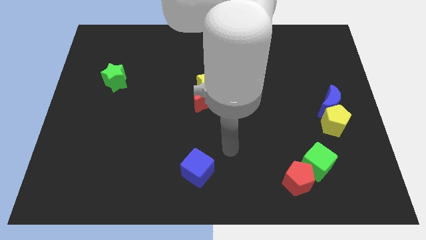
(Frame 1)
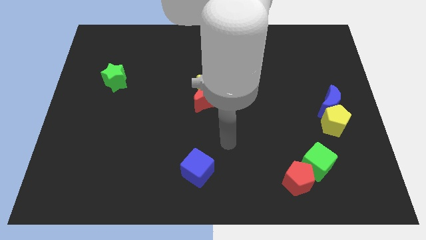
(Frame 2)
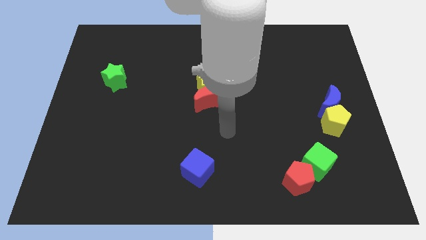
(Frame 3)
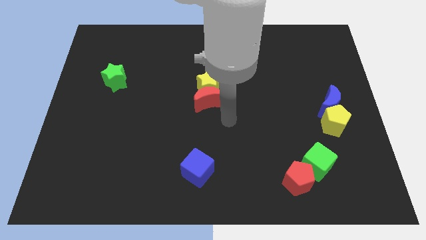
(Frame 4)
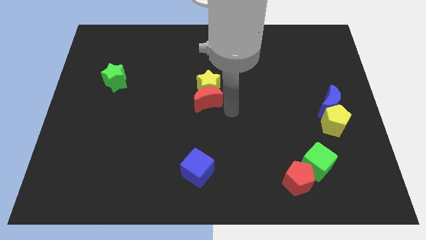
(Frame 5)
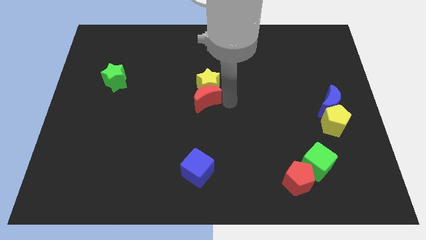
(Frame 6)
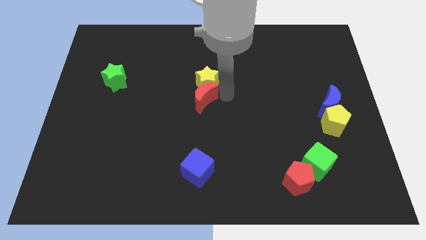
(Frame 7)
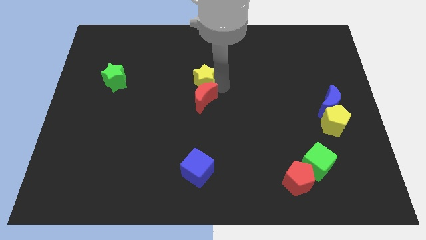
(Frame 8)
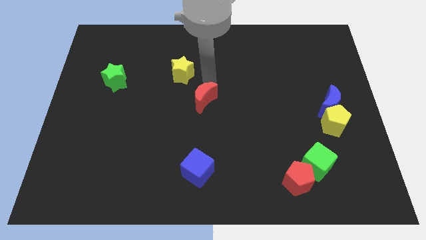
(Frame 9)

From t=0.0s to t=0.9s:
move the red moon away from the yellow star

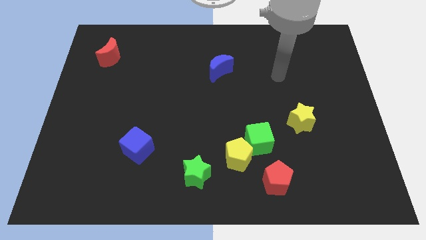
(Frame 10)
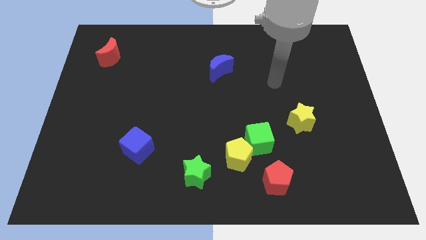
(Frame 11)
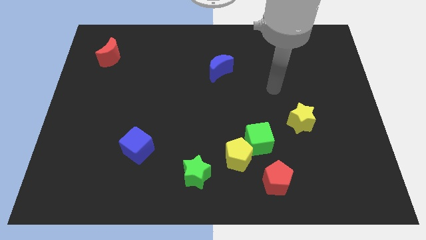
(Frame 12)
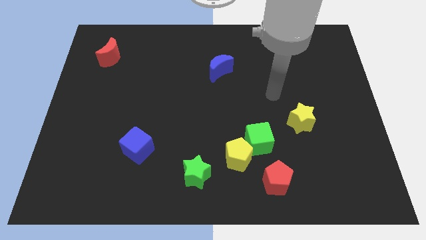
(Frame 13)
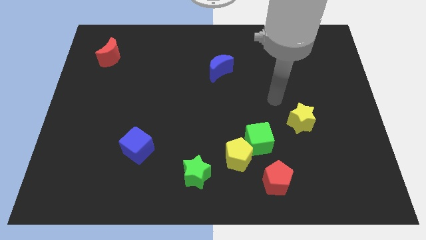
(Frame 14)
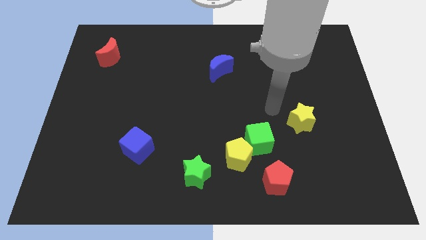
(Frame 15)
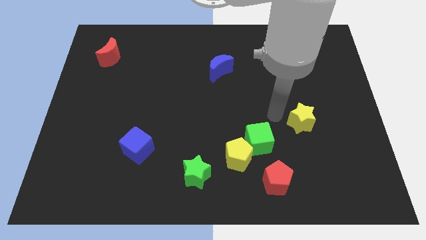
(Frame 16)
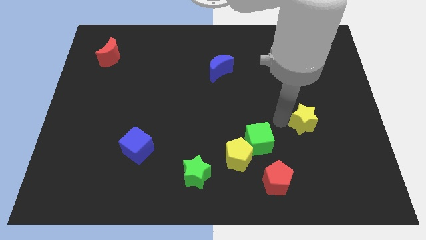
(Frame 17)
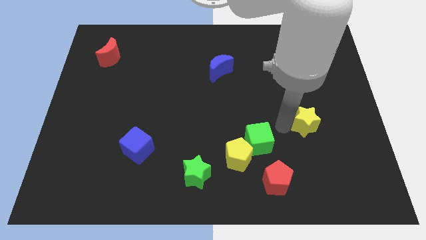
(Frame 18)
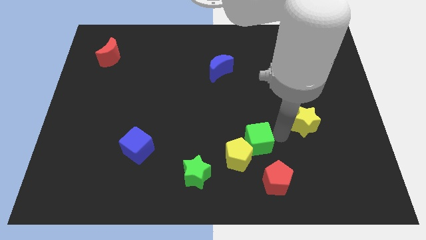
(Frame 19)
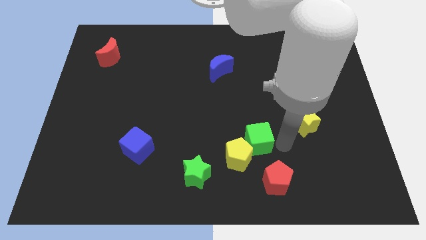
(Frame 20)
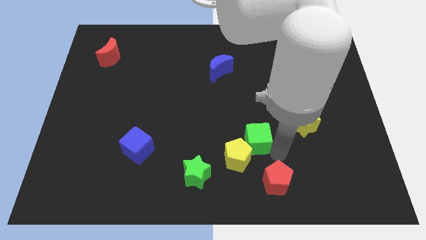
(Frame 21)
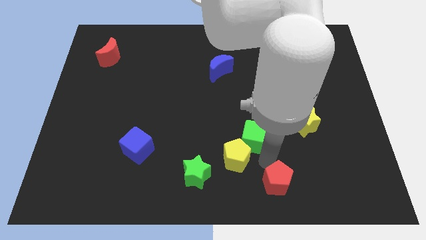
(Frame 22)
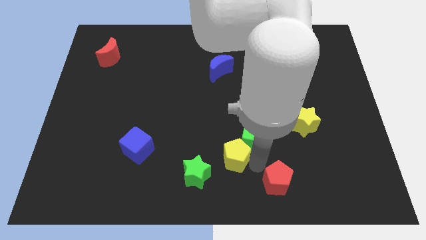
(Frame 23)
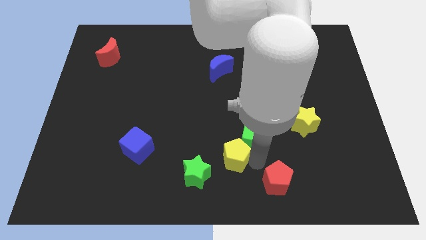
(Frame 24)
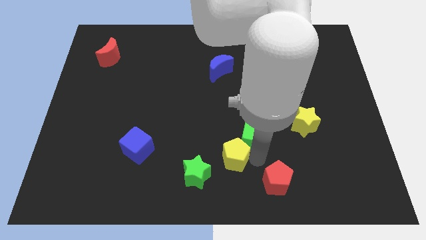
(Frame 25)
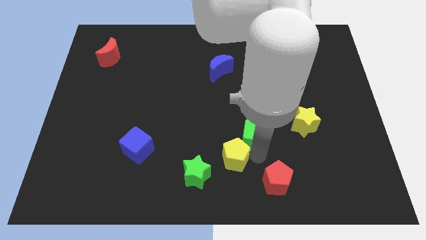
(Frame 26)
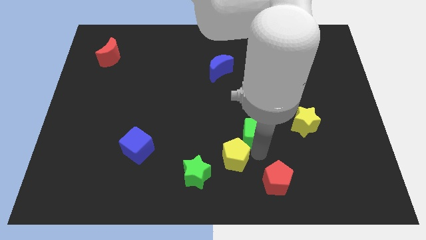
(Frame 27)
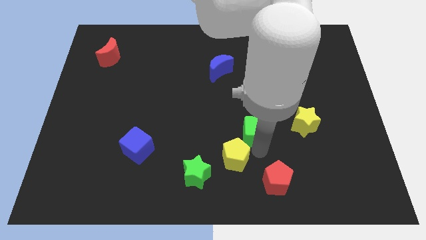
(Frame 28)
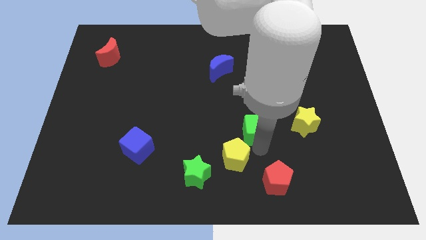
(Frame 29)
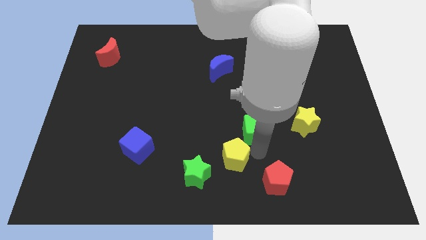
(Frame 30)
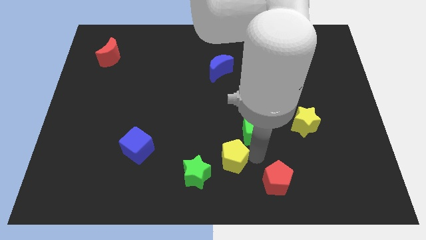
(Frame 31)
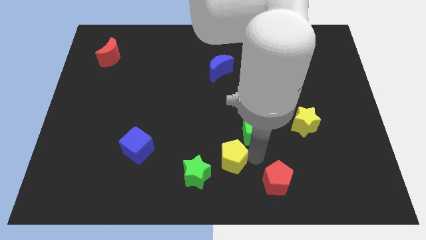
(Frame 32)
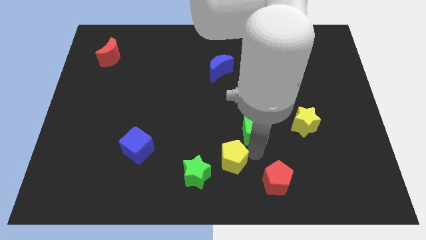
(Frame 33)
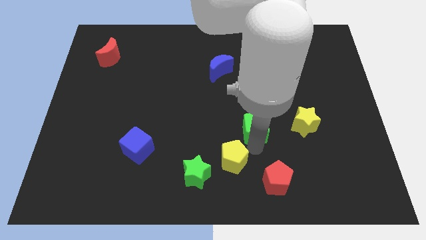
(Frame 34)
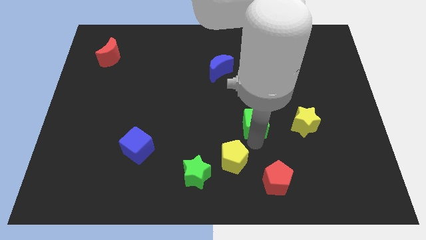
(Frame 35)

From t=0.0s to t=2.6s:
pull the green cube apart from the yellow pentagon and red pentagon

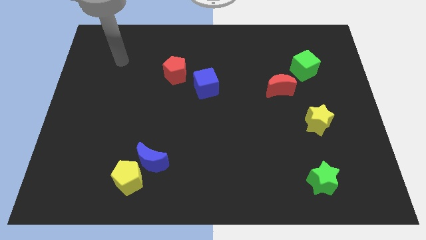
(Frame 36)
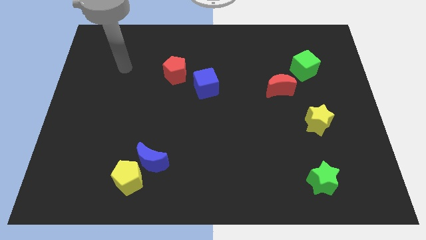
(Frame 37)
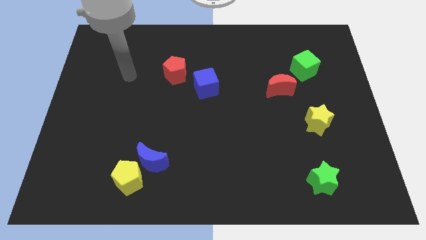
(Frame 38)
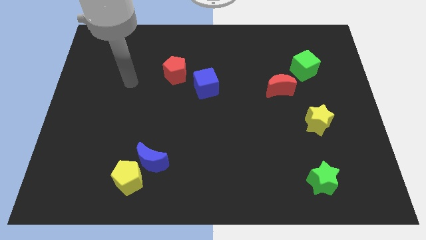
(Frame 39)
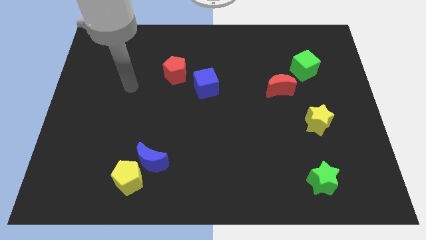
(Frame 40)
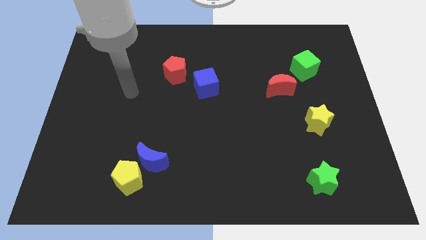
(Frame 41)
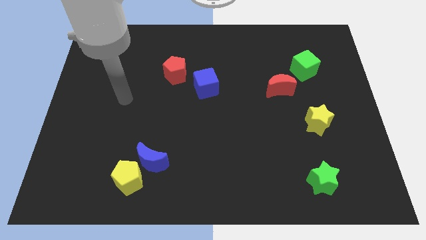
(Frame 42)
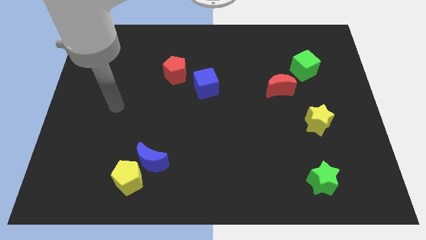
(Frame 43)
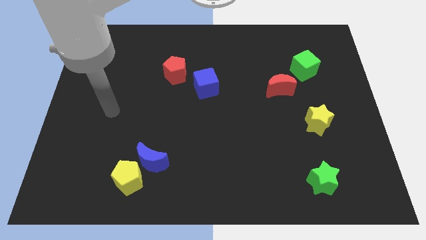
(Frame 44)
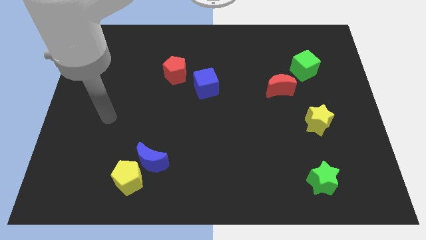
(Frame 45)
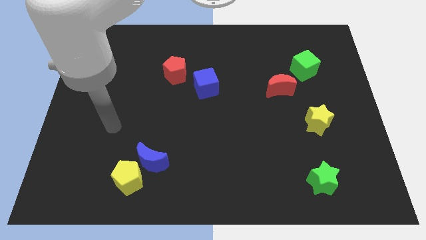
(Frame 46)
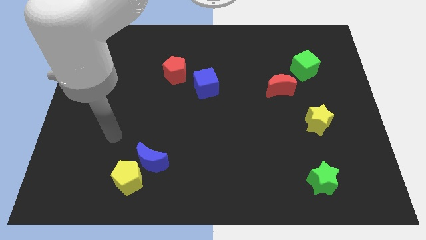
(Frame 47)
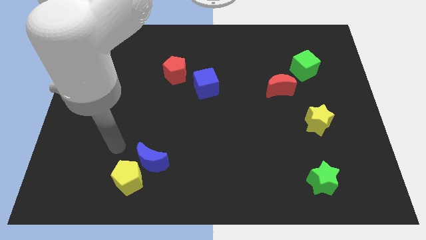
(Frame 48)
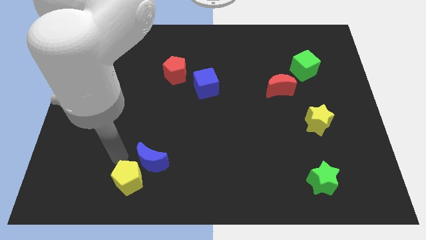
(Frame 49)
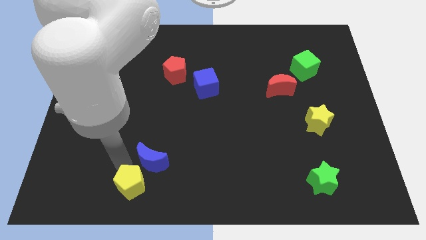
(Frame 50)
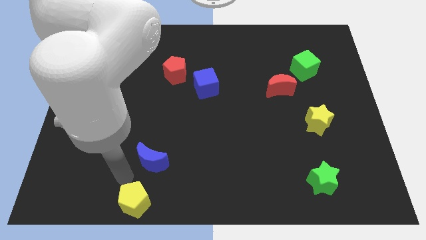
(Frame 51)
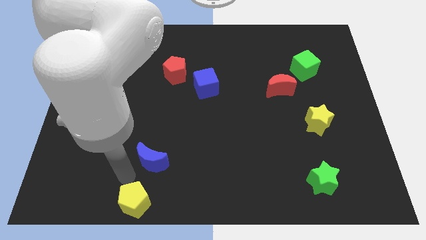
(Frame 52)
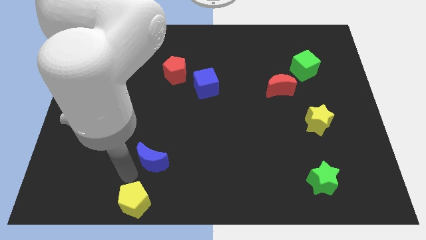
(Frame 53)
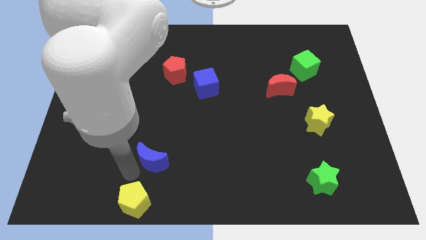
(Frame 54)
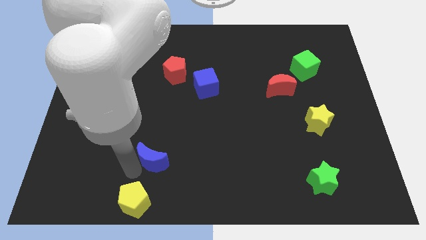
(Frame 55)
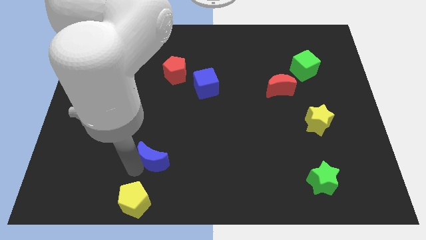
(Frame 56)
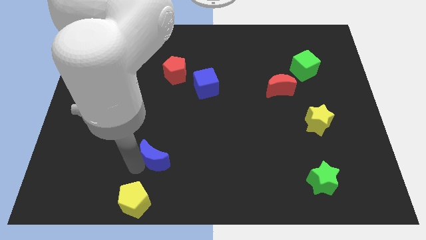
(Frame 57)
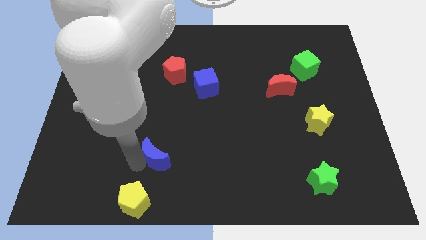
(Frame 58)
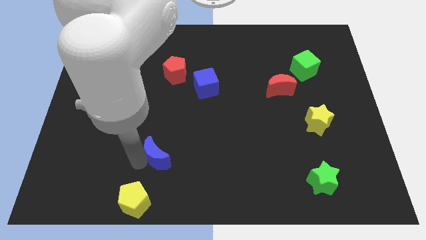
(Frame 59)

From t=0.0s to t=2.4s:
pull the blue moon apart from the yellow pentagon

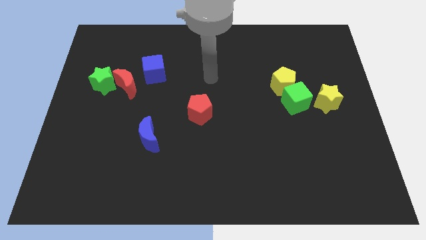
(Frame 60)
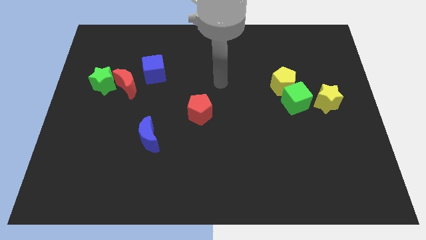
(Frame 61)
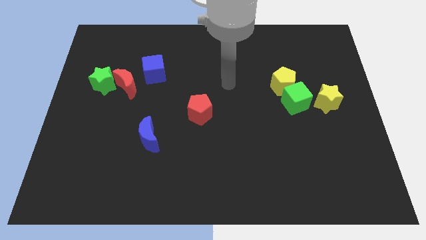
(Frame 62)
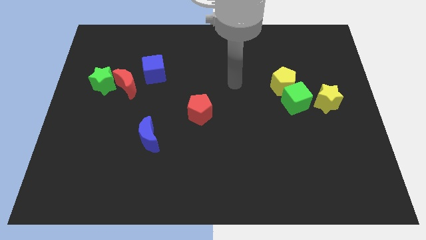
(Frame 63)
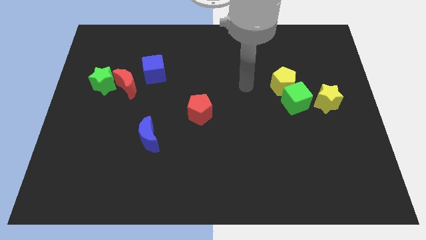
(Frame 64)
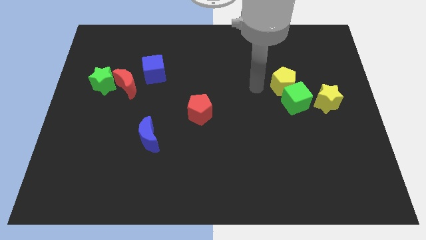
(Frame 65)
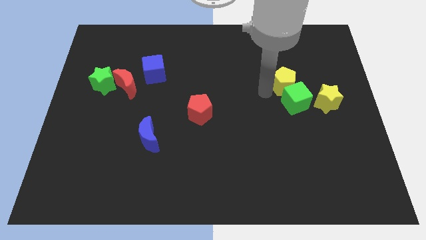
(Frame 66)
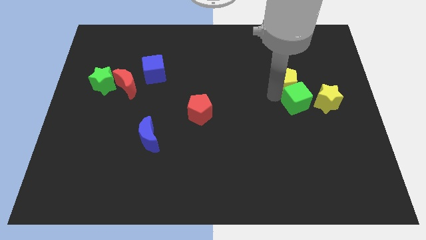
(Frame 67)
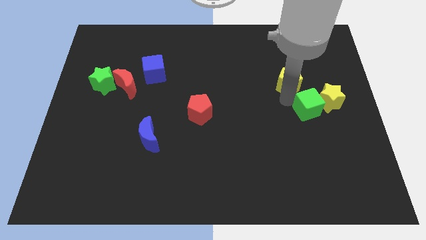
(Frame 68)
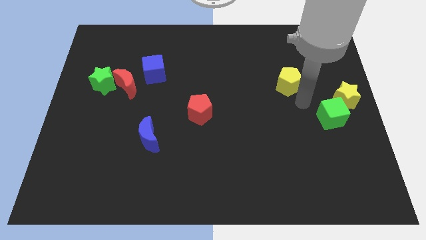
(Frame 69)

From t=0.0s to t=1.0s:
separate the yellow pentagon from the green cube

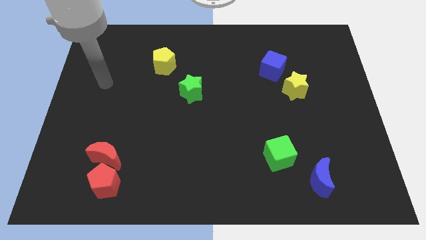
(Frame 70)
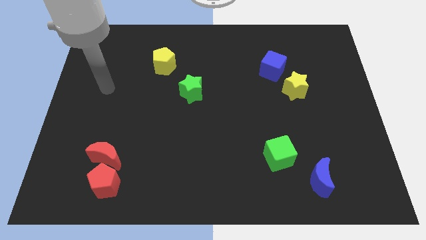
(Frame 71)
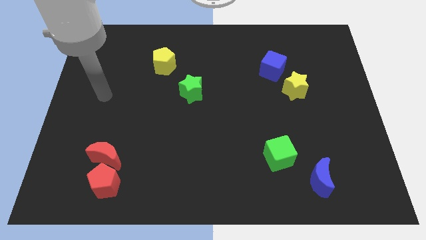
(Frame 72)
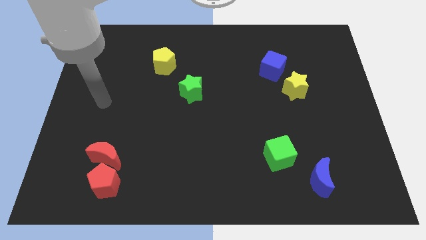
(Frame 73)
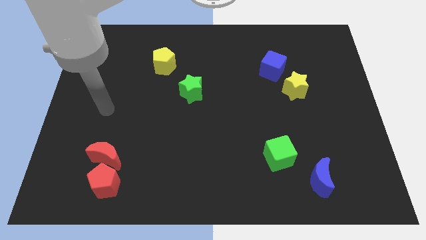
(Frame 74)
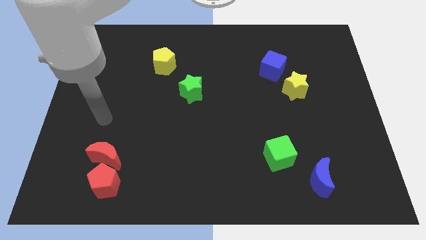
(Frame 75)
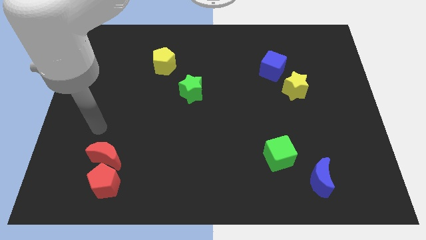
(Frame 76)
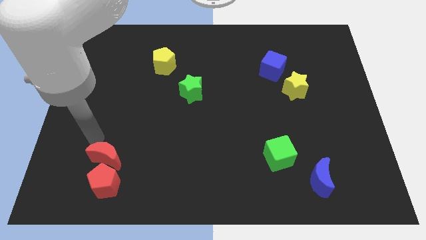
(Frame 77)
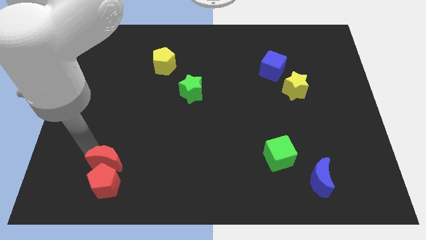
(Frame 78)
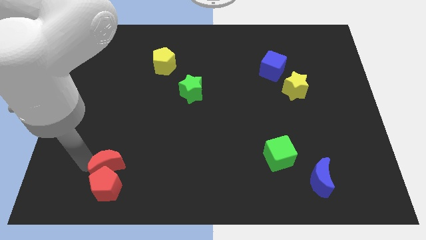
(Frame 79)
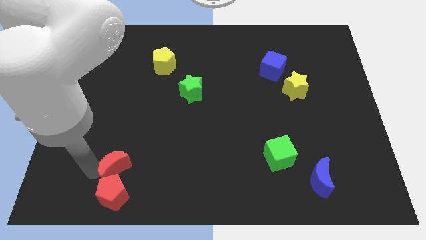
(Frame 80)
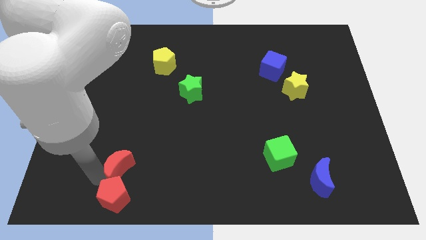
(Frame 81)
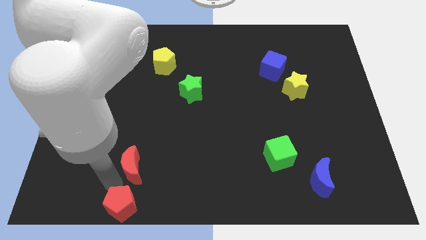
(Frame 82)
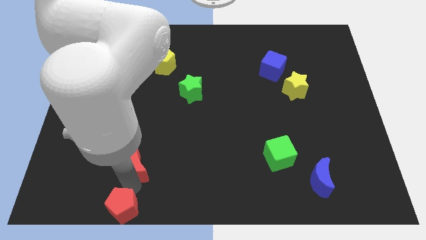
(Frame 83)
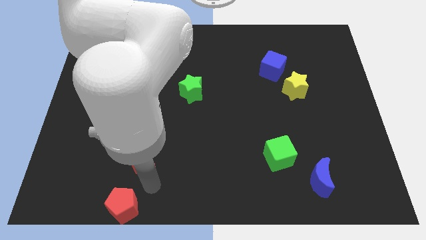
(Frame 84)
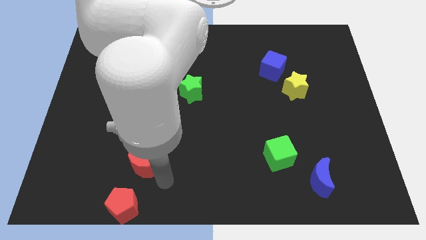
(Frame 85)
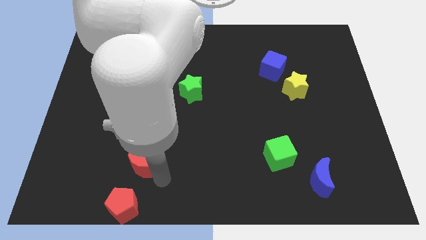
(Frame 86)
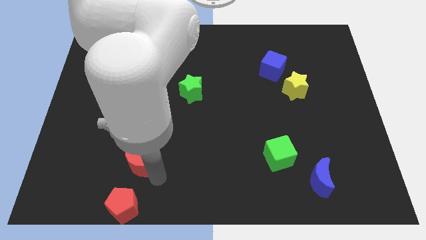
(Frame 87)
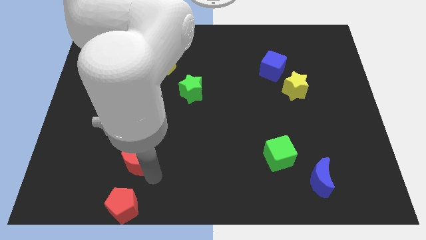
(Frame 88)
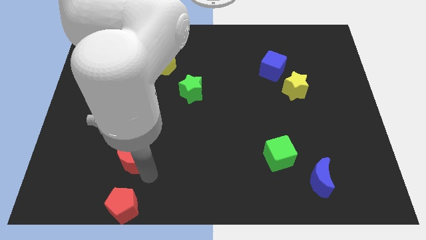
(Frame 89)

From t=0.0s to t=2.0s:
move the red moon away from the red pentagon

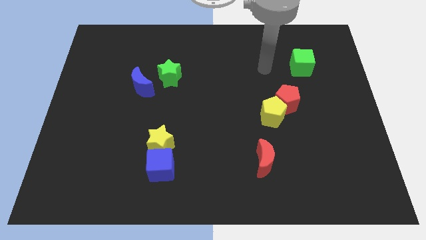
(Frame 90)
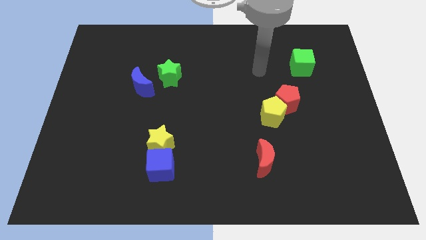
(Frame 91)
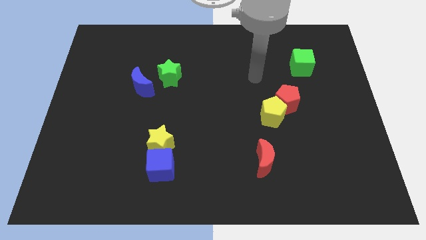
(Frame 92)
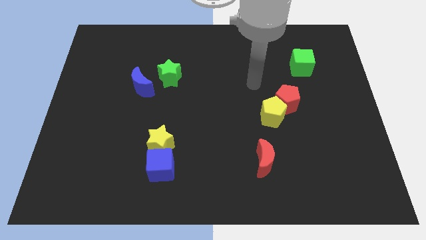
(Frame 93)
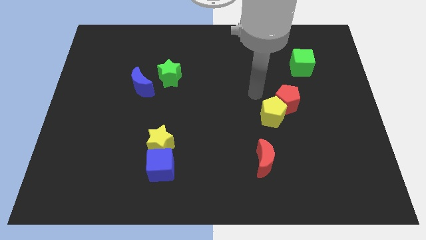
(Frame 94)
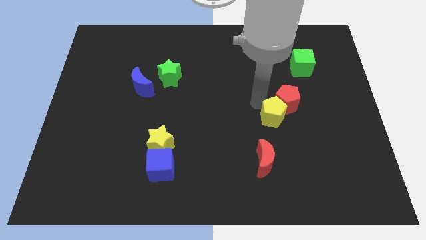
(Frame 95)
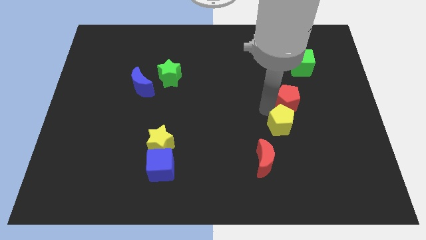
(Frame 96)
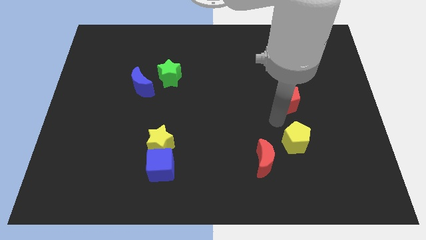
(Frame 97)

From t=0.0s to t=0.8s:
separate the red pentagon from the yellow pentagon
